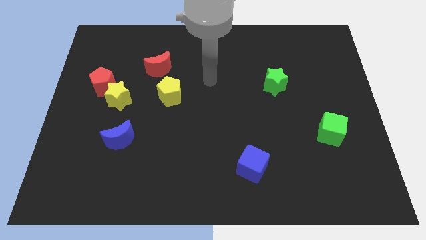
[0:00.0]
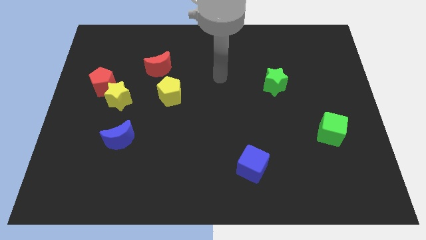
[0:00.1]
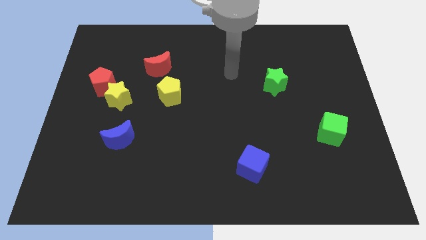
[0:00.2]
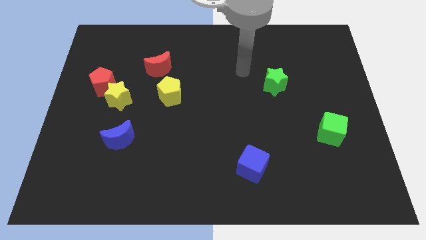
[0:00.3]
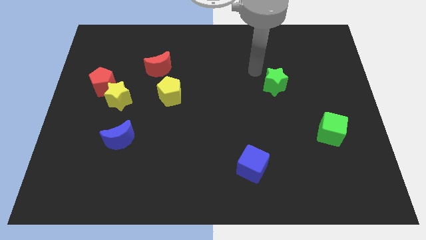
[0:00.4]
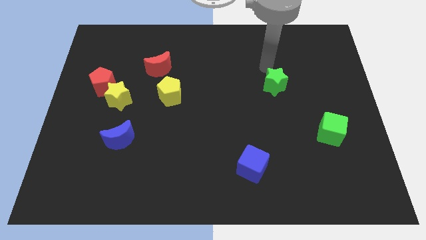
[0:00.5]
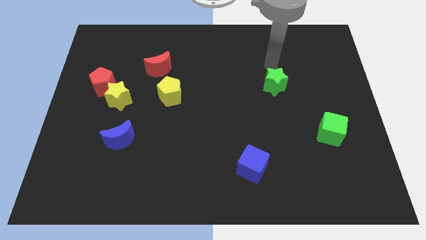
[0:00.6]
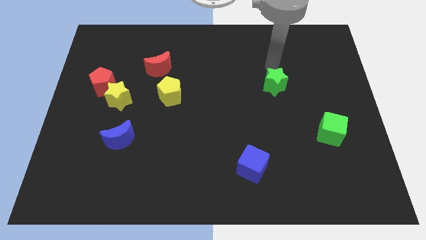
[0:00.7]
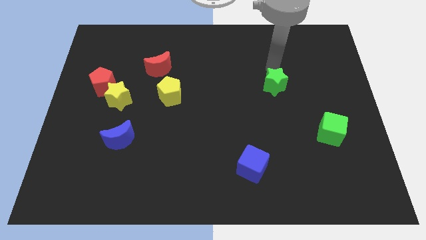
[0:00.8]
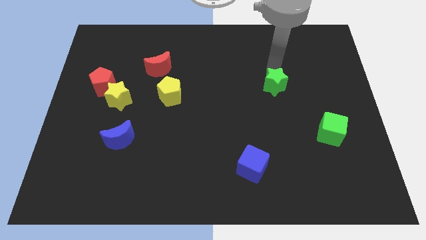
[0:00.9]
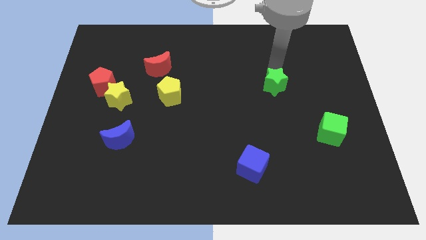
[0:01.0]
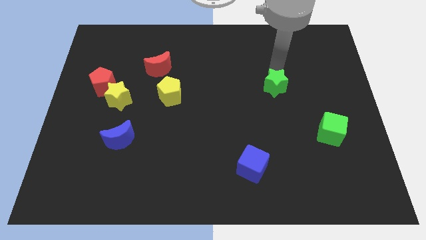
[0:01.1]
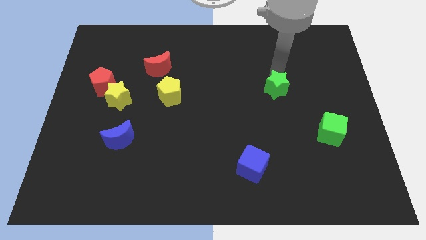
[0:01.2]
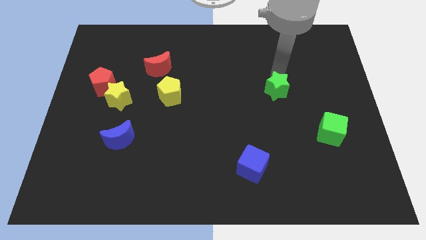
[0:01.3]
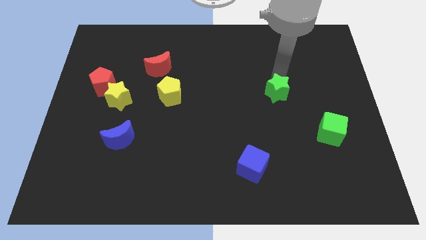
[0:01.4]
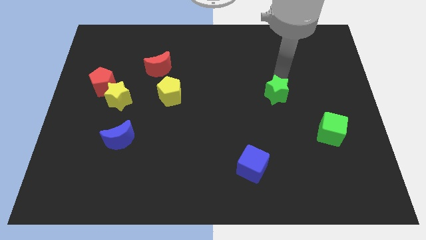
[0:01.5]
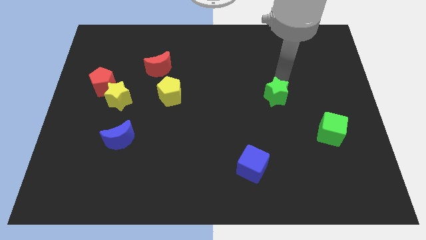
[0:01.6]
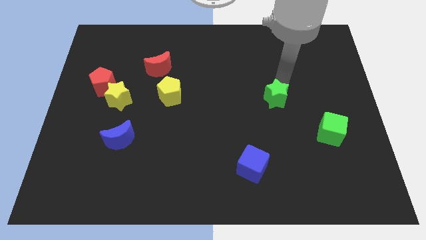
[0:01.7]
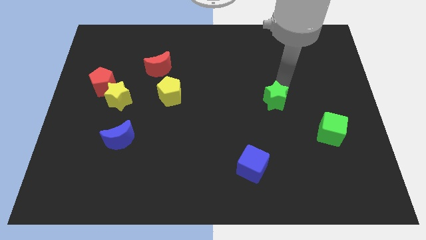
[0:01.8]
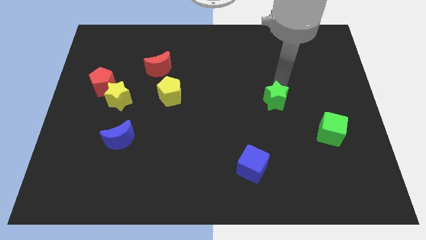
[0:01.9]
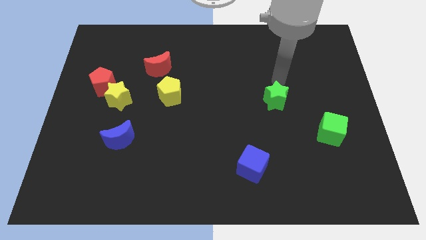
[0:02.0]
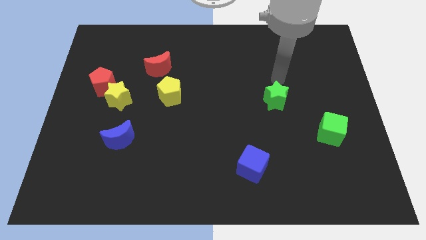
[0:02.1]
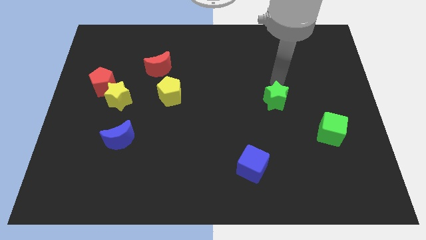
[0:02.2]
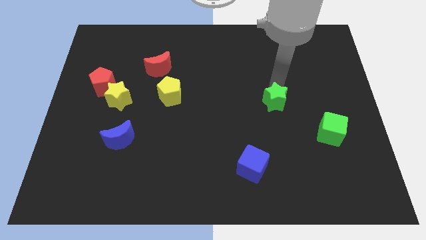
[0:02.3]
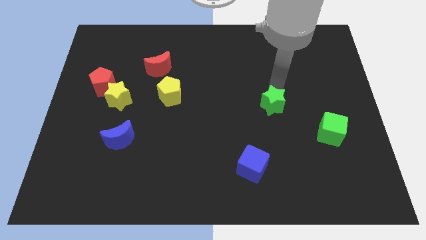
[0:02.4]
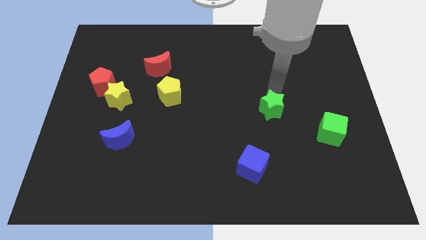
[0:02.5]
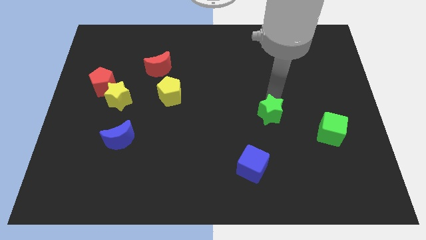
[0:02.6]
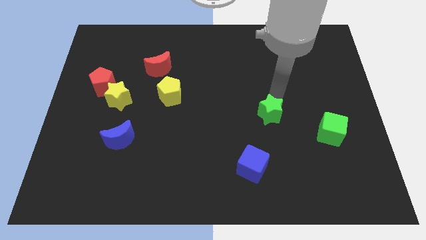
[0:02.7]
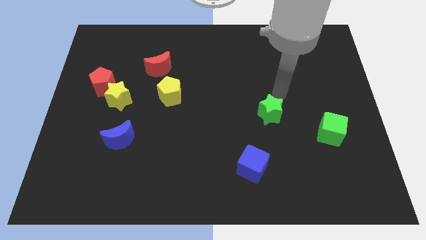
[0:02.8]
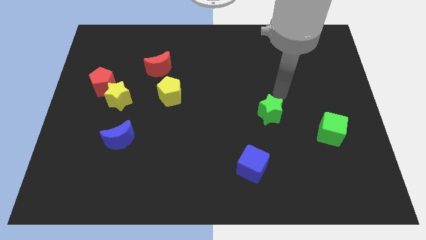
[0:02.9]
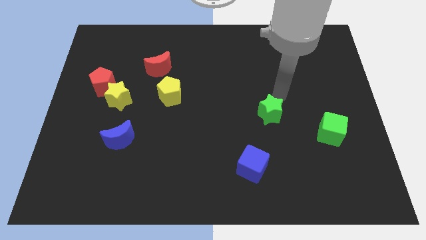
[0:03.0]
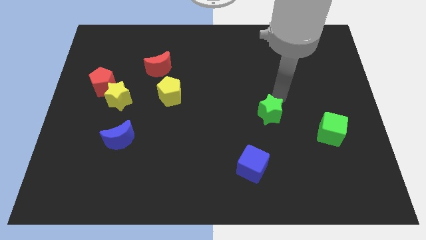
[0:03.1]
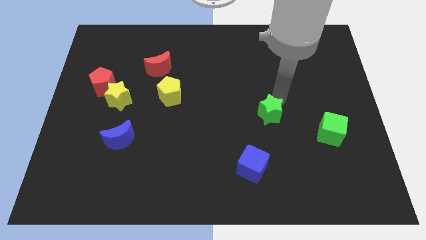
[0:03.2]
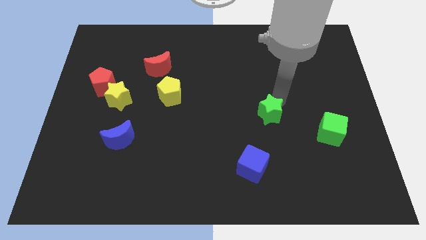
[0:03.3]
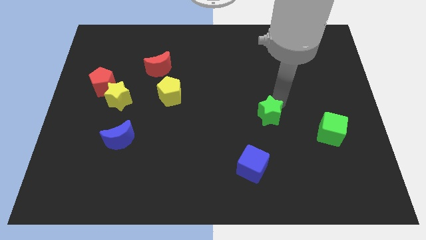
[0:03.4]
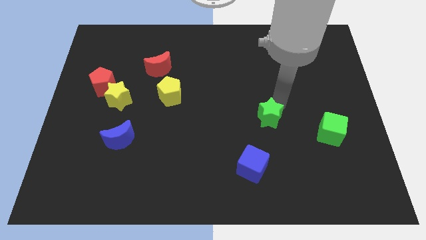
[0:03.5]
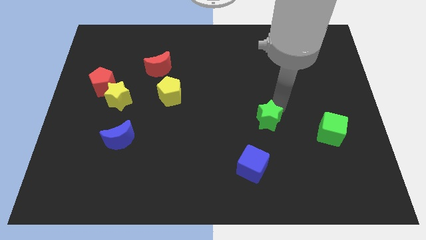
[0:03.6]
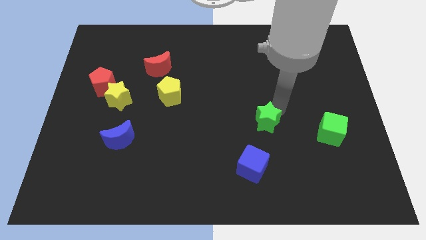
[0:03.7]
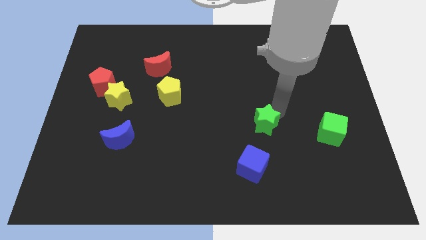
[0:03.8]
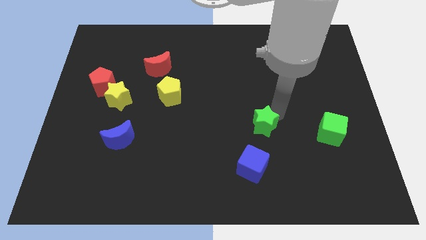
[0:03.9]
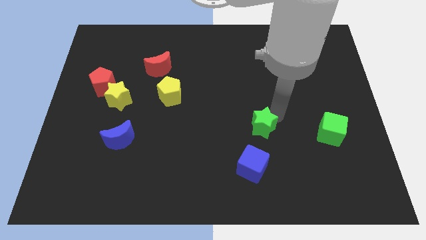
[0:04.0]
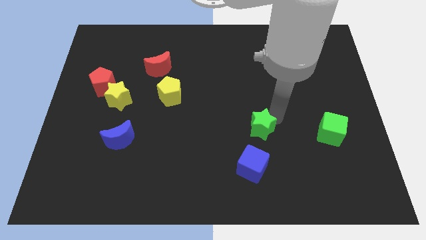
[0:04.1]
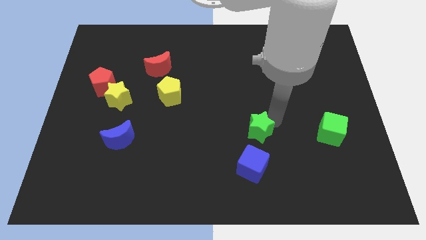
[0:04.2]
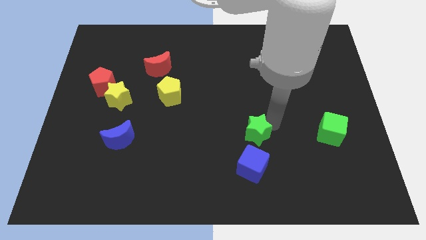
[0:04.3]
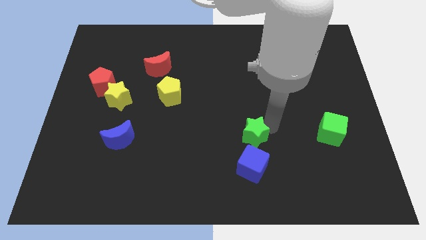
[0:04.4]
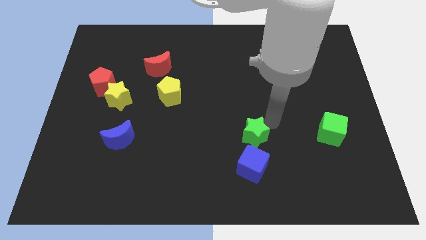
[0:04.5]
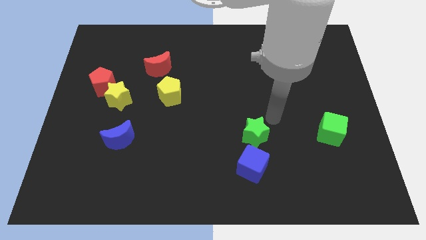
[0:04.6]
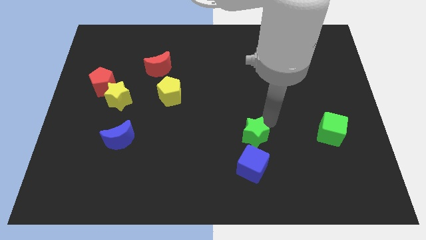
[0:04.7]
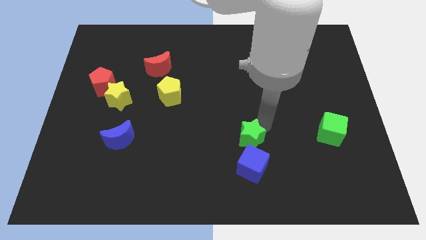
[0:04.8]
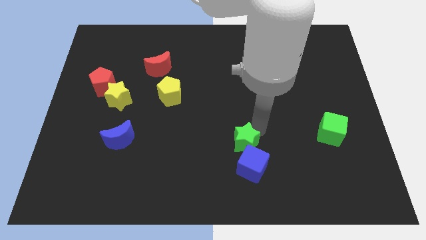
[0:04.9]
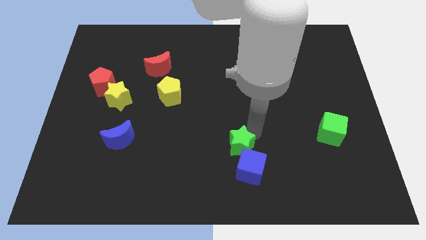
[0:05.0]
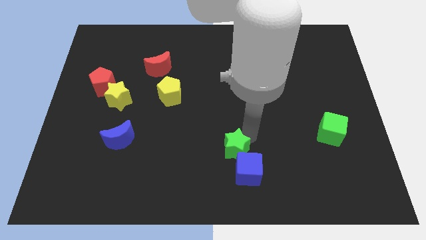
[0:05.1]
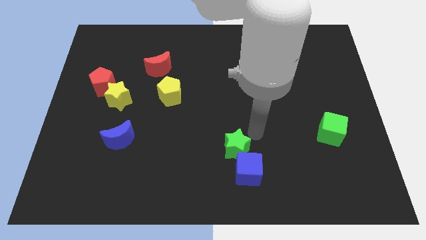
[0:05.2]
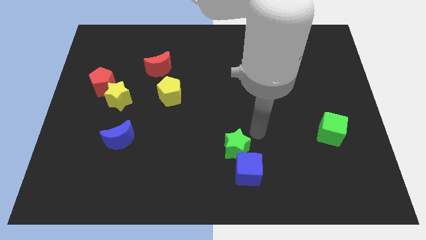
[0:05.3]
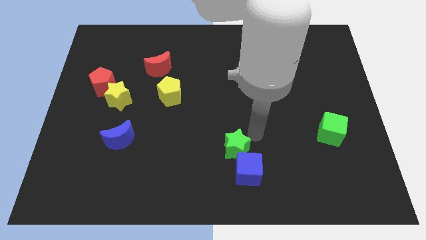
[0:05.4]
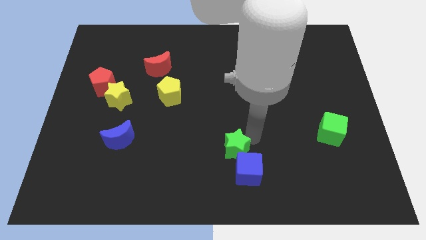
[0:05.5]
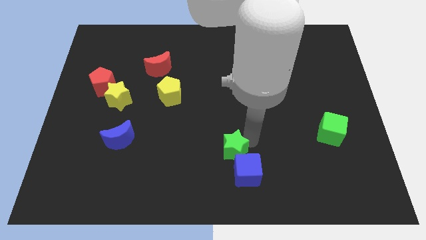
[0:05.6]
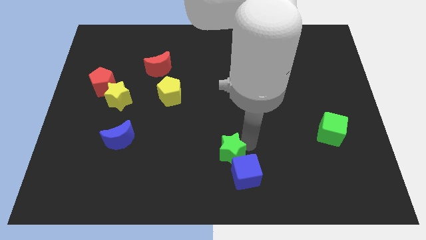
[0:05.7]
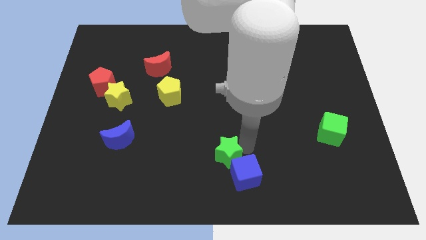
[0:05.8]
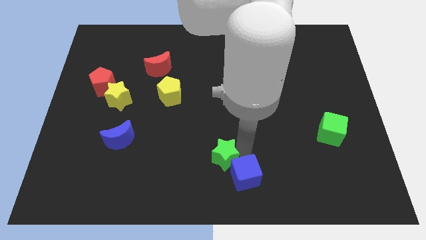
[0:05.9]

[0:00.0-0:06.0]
move the green star to the left side of the blue cube
